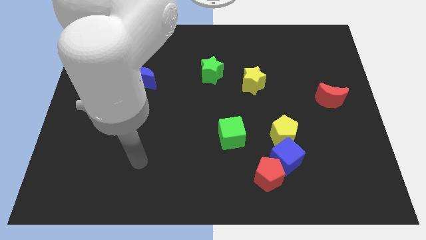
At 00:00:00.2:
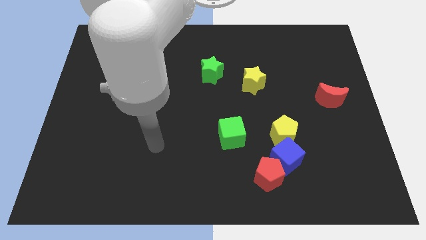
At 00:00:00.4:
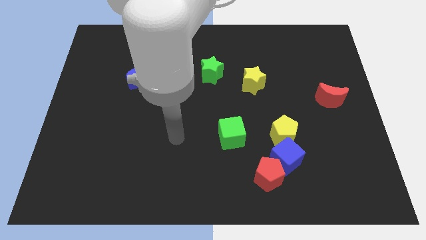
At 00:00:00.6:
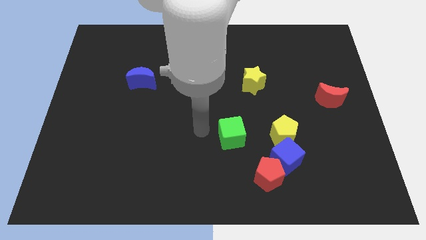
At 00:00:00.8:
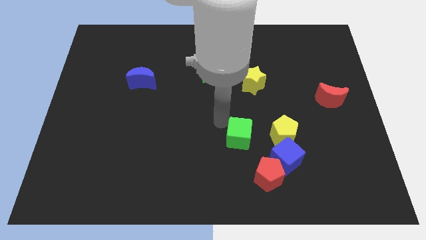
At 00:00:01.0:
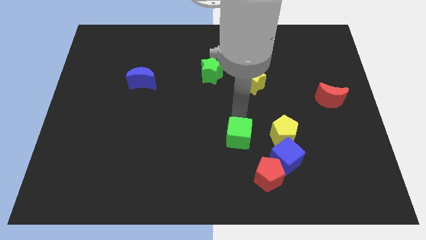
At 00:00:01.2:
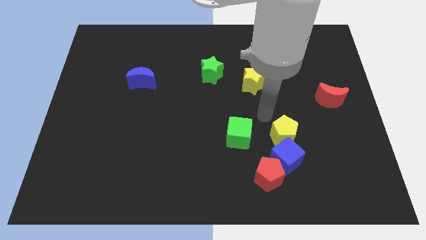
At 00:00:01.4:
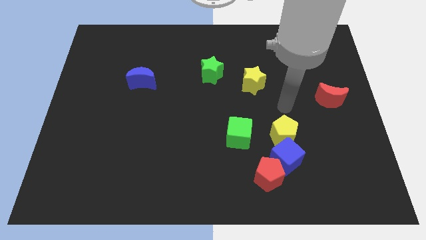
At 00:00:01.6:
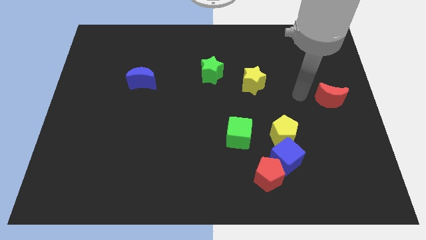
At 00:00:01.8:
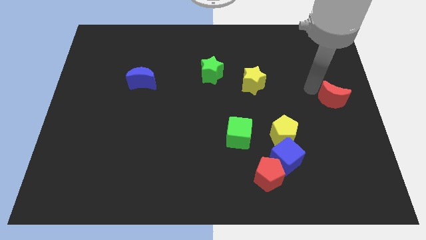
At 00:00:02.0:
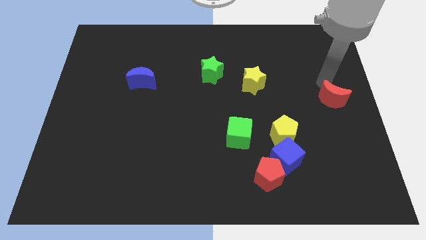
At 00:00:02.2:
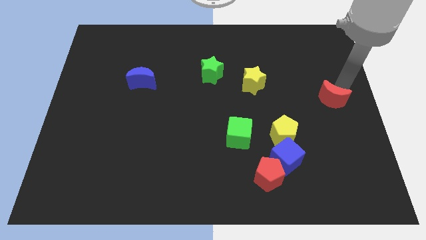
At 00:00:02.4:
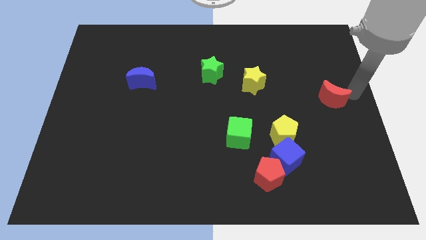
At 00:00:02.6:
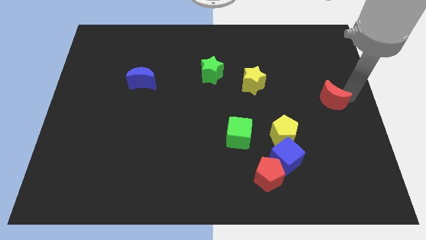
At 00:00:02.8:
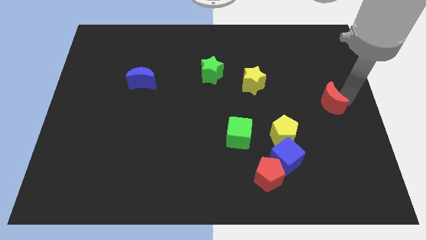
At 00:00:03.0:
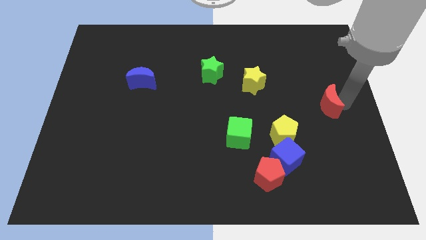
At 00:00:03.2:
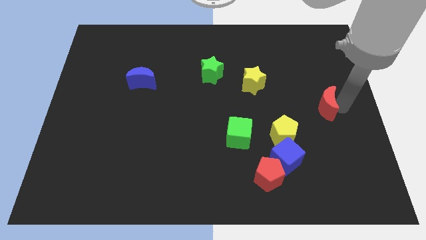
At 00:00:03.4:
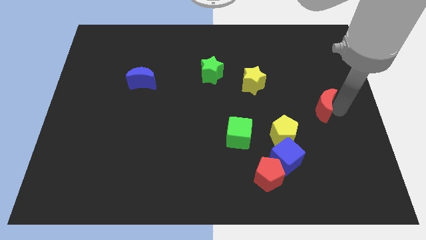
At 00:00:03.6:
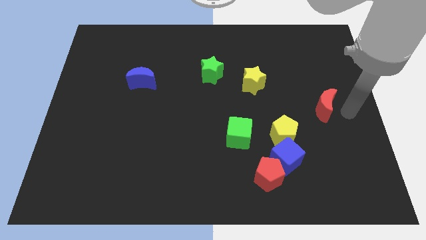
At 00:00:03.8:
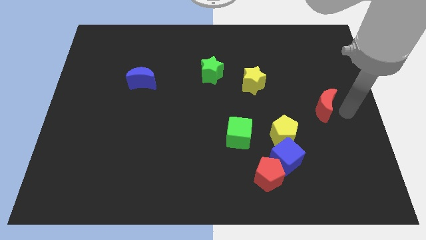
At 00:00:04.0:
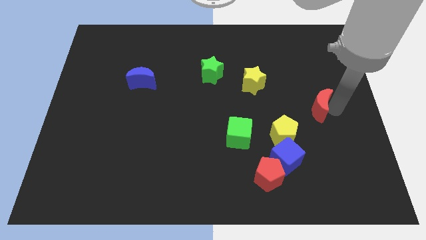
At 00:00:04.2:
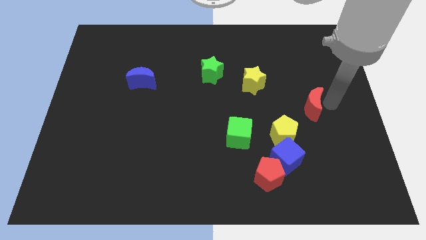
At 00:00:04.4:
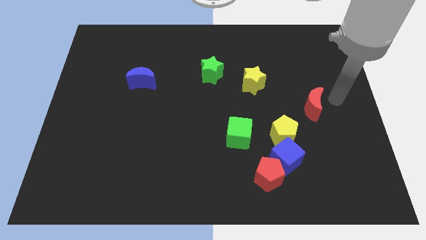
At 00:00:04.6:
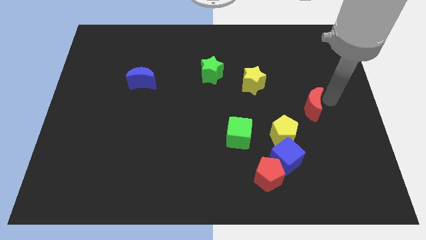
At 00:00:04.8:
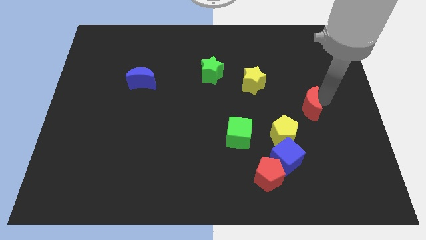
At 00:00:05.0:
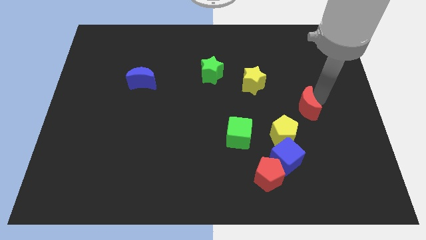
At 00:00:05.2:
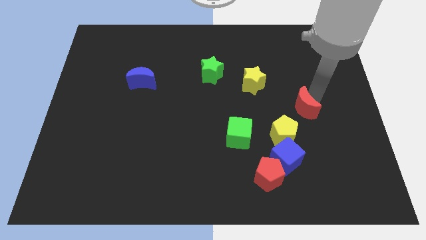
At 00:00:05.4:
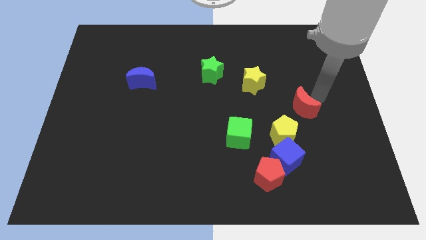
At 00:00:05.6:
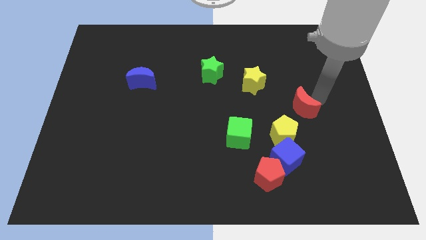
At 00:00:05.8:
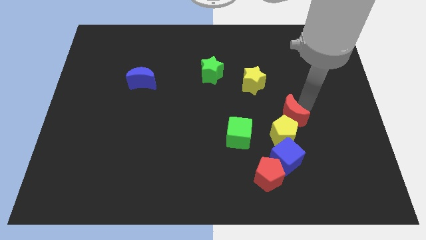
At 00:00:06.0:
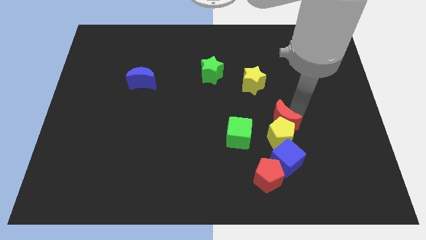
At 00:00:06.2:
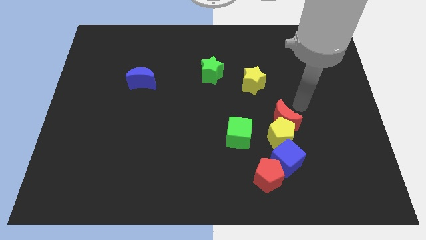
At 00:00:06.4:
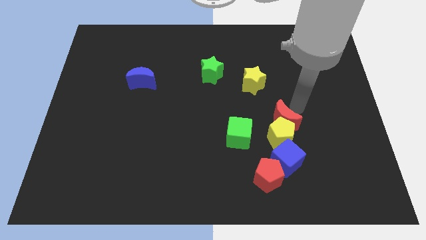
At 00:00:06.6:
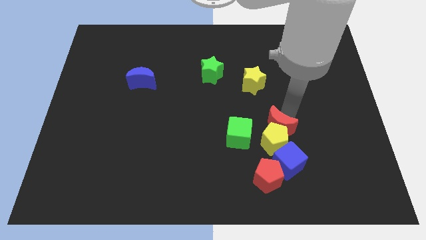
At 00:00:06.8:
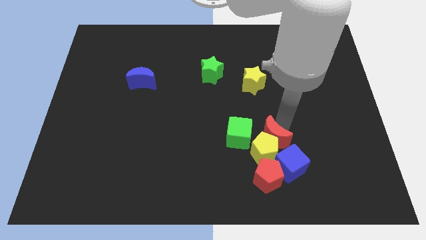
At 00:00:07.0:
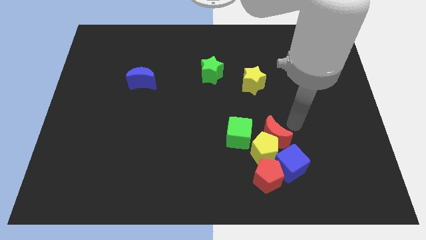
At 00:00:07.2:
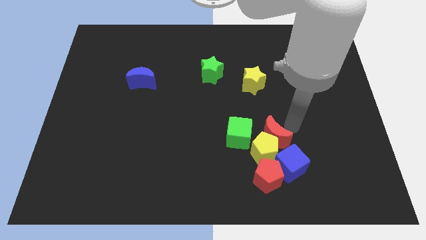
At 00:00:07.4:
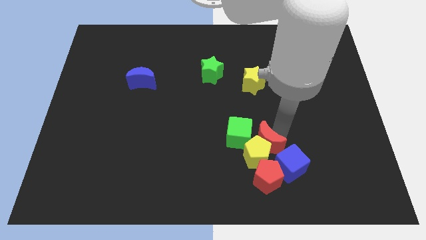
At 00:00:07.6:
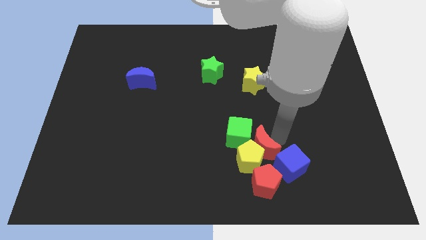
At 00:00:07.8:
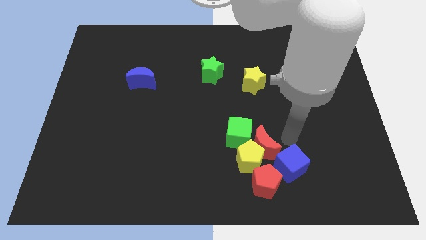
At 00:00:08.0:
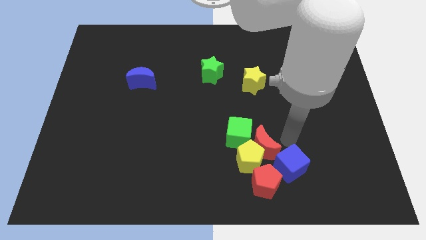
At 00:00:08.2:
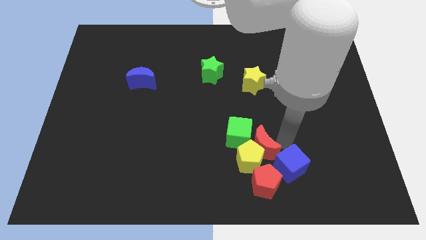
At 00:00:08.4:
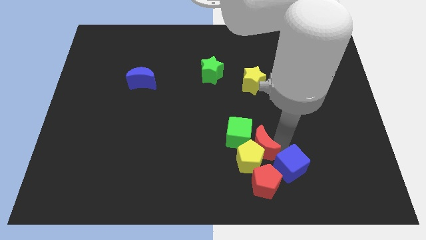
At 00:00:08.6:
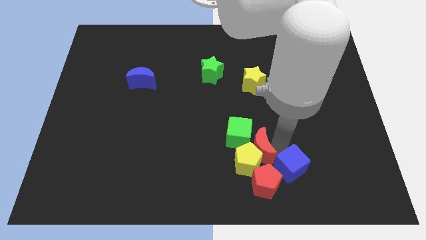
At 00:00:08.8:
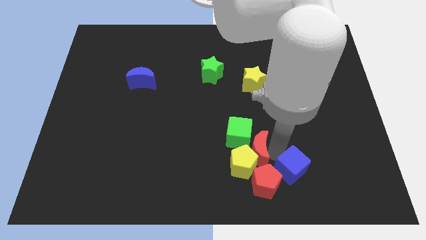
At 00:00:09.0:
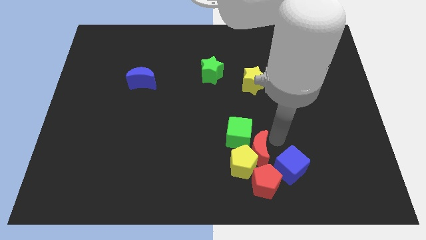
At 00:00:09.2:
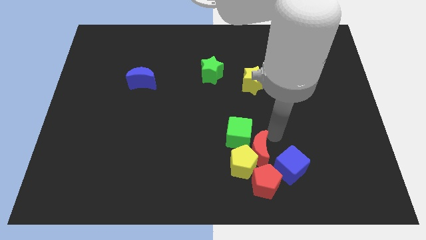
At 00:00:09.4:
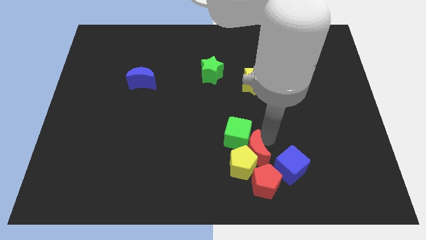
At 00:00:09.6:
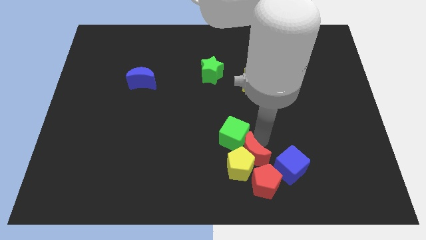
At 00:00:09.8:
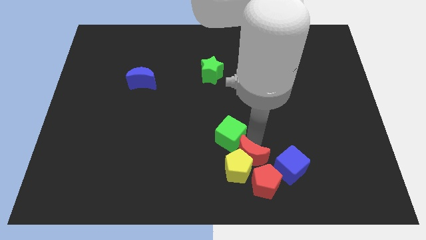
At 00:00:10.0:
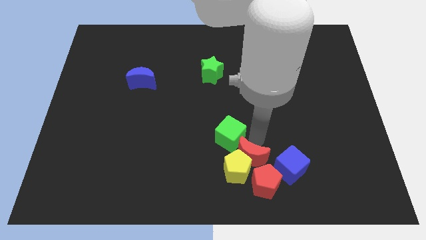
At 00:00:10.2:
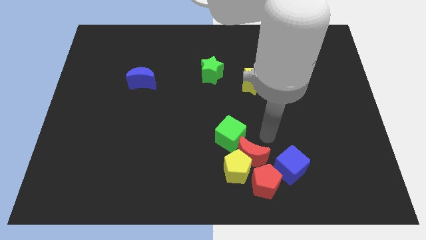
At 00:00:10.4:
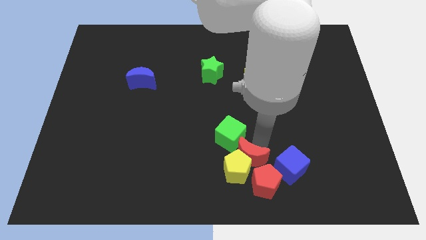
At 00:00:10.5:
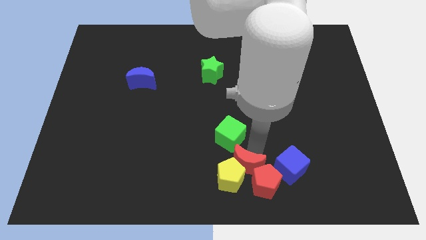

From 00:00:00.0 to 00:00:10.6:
push the red moon to the bottom side

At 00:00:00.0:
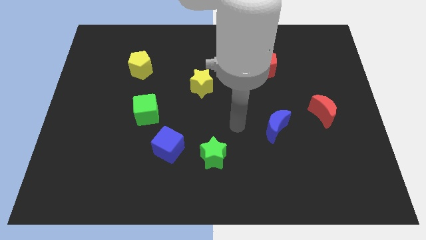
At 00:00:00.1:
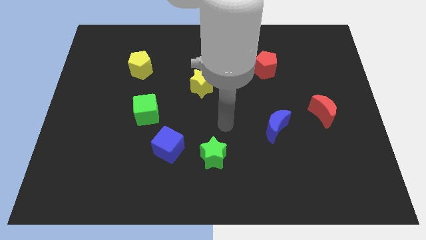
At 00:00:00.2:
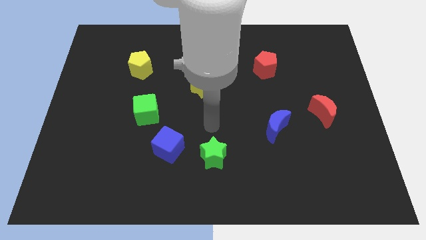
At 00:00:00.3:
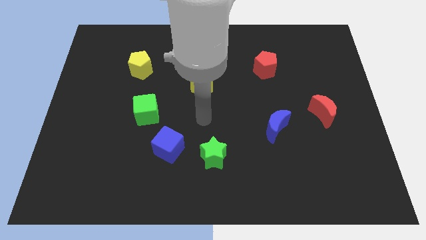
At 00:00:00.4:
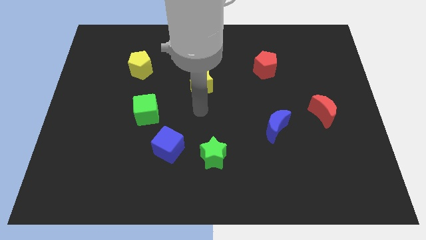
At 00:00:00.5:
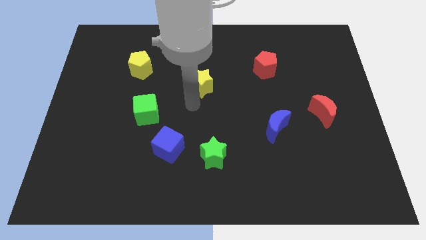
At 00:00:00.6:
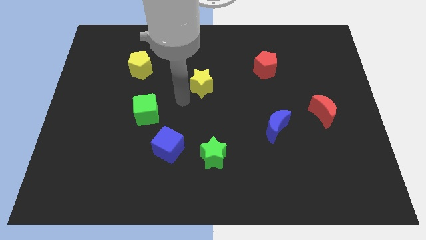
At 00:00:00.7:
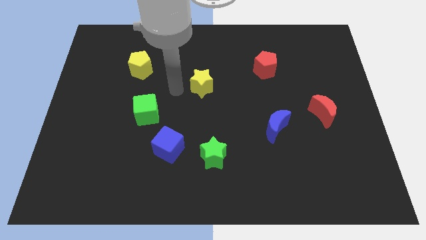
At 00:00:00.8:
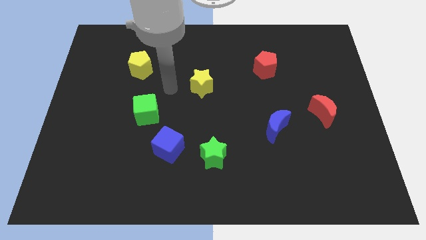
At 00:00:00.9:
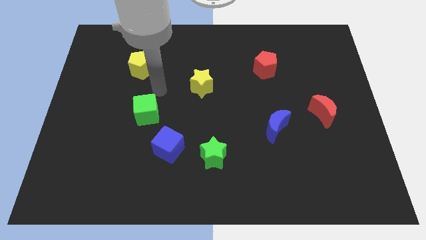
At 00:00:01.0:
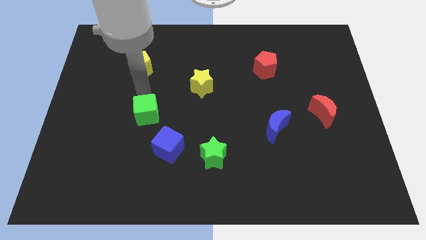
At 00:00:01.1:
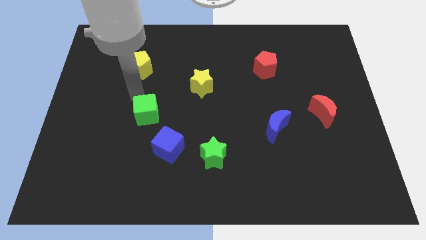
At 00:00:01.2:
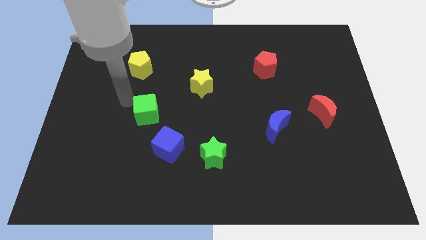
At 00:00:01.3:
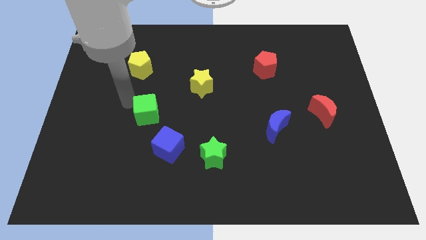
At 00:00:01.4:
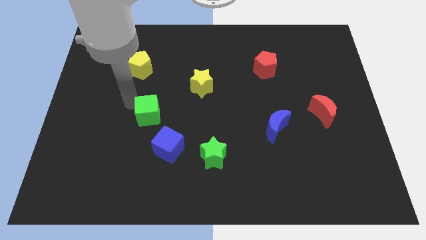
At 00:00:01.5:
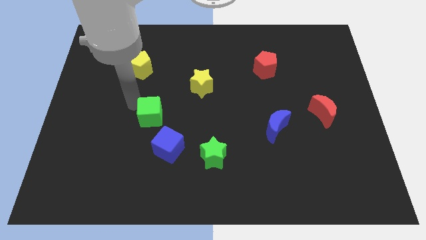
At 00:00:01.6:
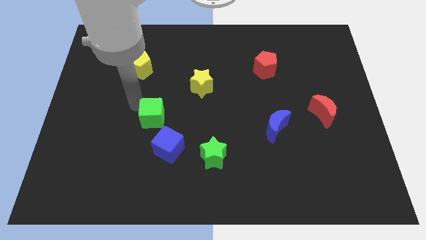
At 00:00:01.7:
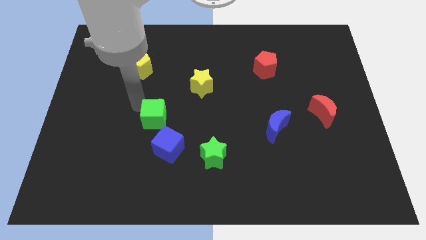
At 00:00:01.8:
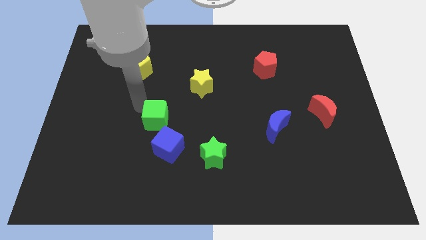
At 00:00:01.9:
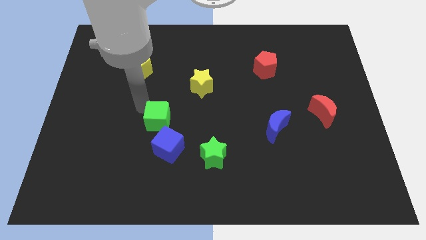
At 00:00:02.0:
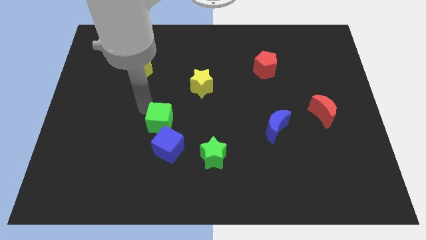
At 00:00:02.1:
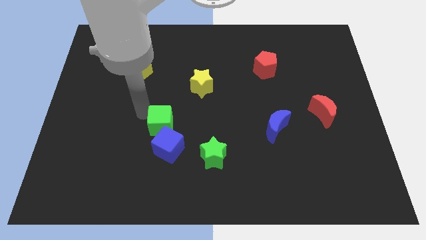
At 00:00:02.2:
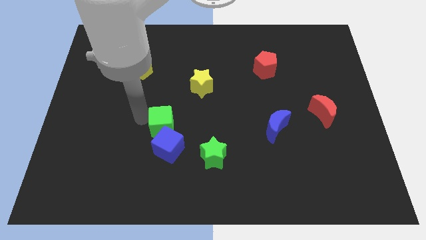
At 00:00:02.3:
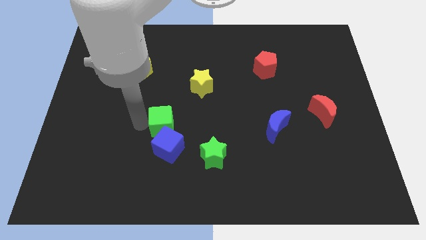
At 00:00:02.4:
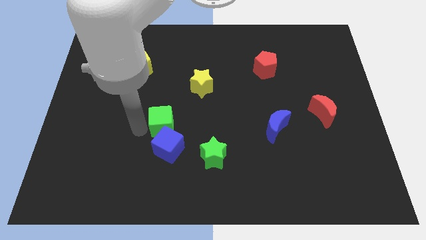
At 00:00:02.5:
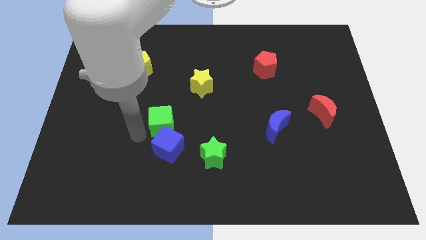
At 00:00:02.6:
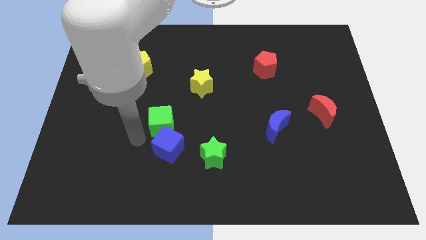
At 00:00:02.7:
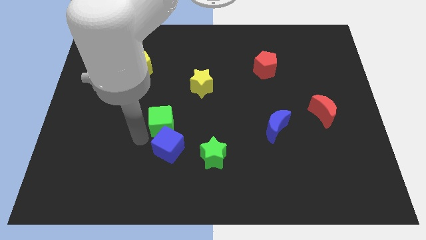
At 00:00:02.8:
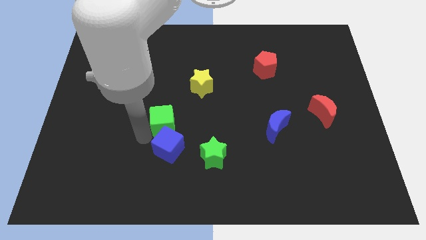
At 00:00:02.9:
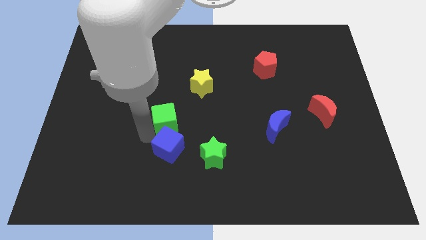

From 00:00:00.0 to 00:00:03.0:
move the green cube to the middle
